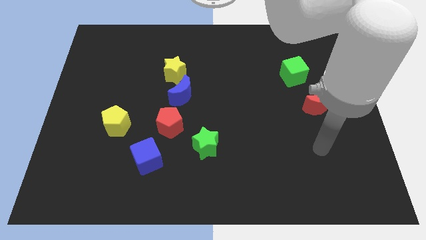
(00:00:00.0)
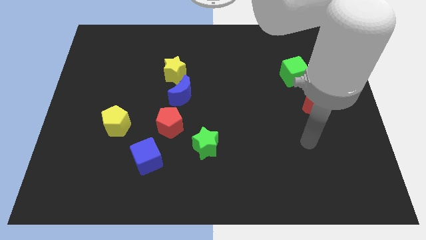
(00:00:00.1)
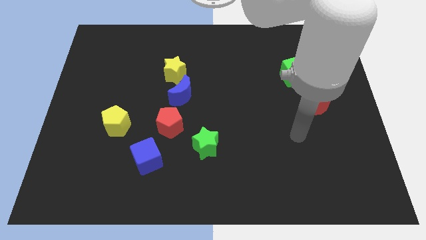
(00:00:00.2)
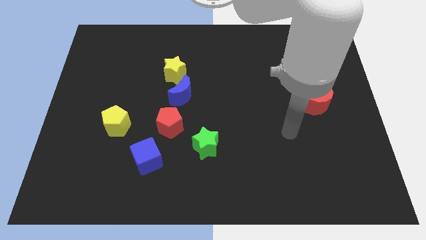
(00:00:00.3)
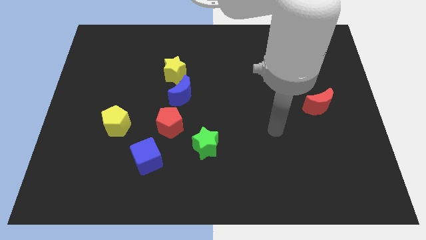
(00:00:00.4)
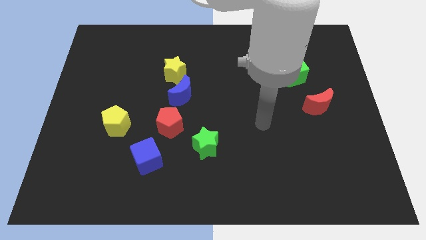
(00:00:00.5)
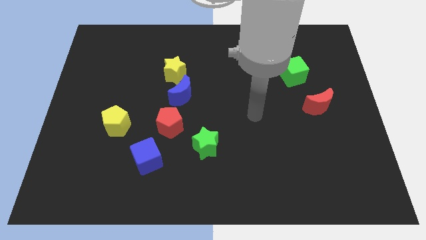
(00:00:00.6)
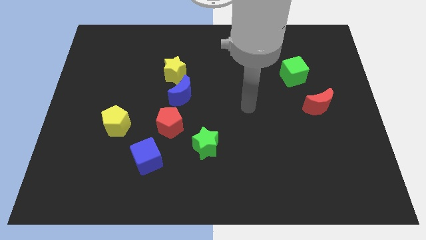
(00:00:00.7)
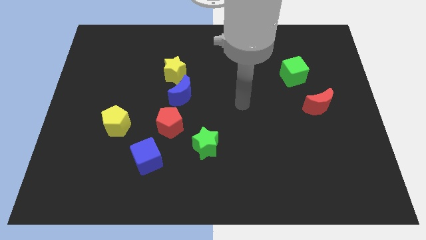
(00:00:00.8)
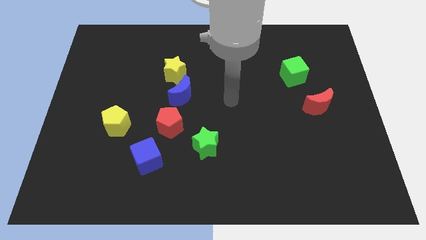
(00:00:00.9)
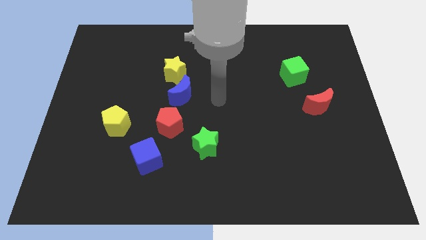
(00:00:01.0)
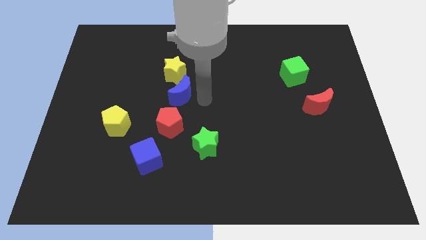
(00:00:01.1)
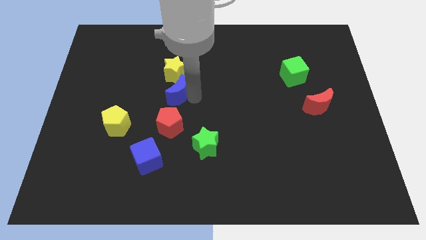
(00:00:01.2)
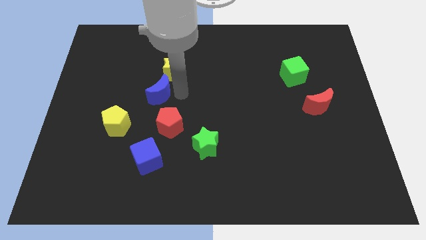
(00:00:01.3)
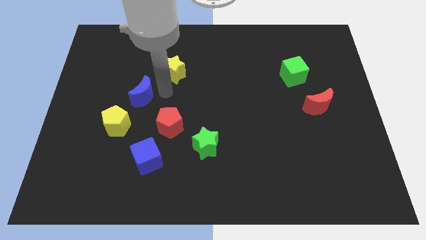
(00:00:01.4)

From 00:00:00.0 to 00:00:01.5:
separate the yellow star from the blue moon

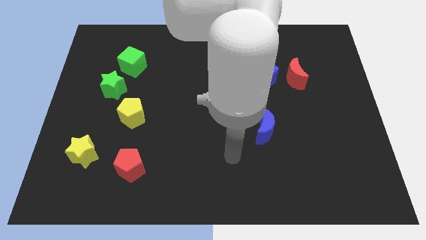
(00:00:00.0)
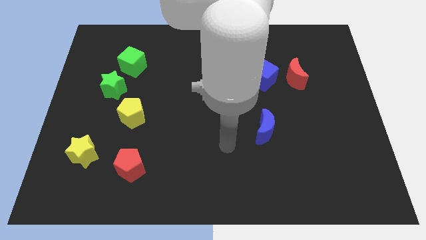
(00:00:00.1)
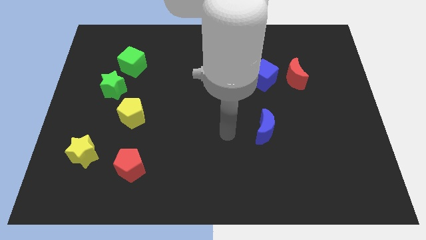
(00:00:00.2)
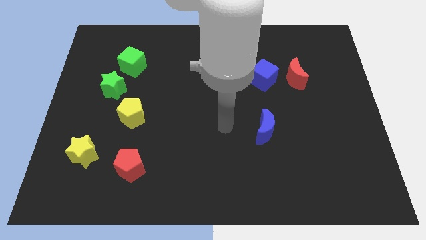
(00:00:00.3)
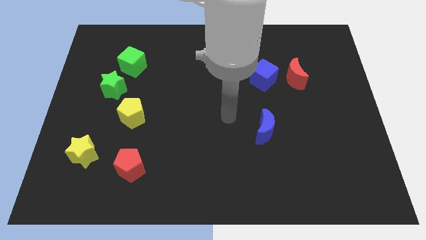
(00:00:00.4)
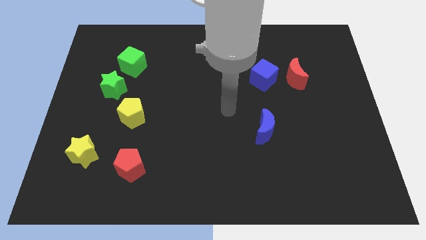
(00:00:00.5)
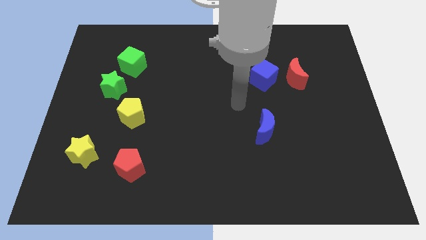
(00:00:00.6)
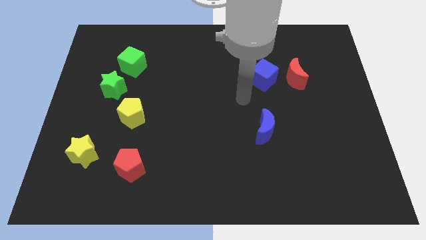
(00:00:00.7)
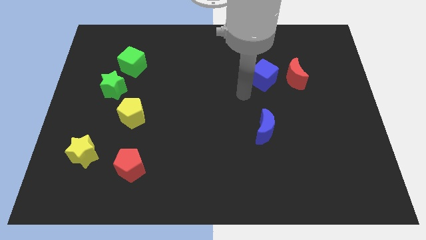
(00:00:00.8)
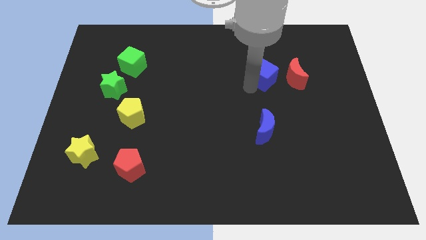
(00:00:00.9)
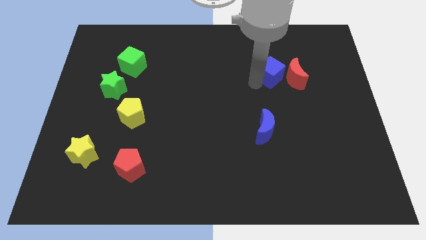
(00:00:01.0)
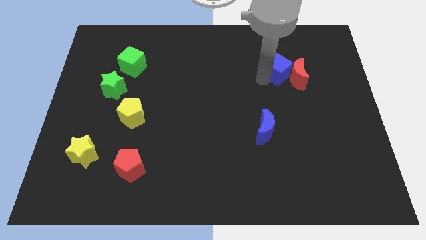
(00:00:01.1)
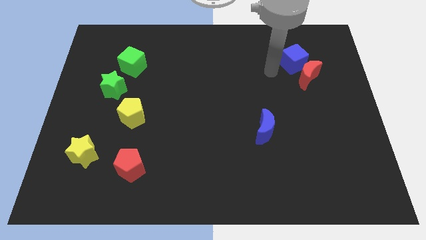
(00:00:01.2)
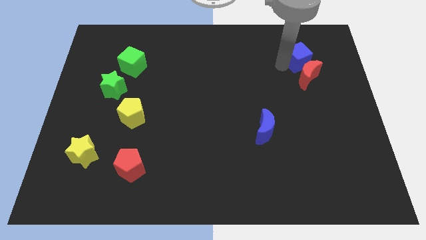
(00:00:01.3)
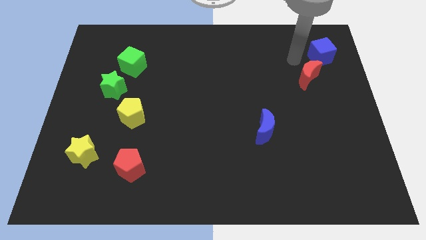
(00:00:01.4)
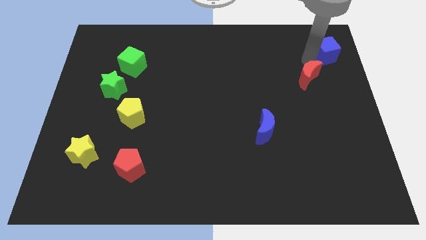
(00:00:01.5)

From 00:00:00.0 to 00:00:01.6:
separate the red moon from the blue cube

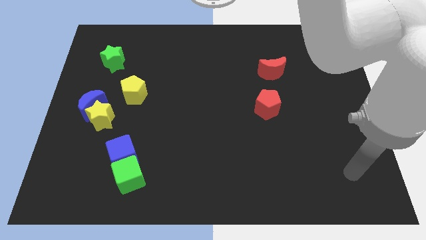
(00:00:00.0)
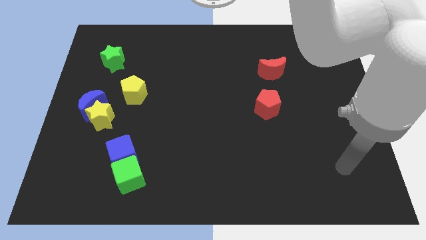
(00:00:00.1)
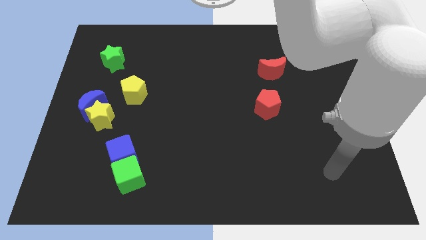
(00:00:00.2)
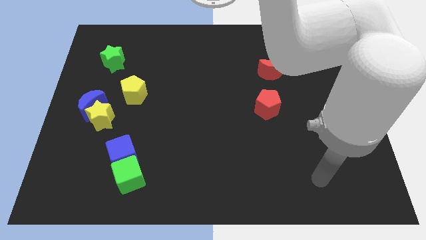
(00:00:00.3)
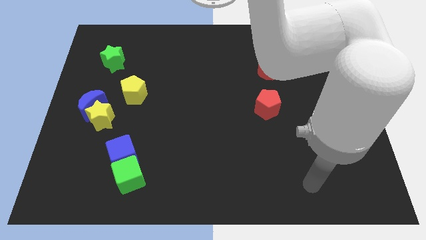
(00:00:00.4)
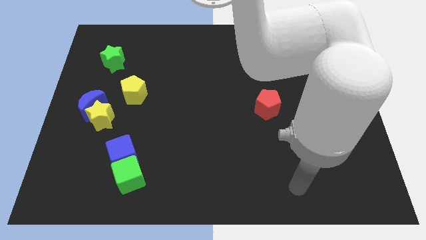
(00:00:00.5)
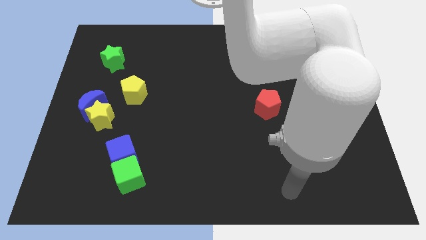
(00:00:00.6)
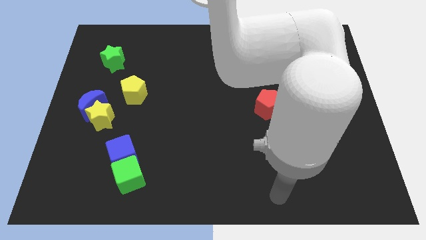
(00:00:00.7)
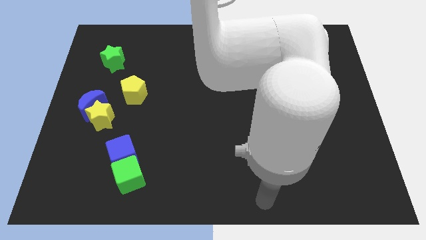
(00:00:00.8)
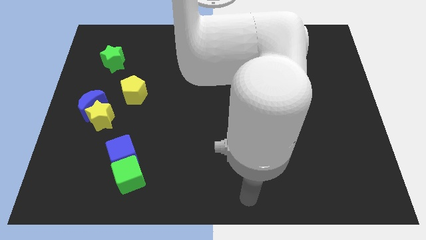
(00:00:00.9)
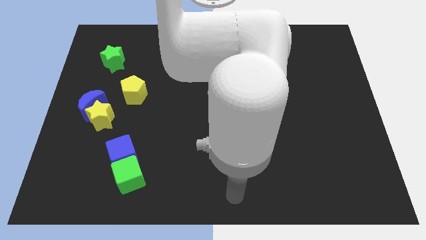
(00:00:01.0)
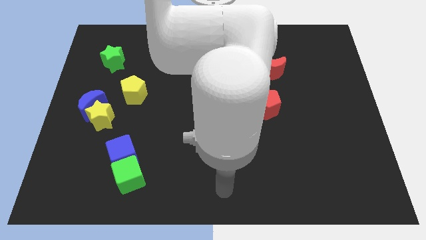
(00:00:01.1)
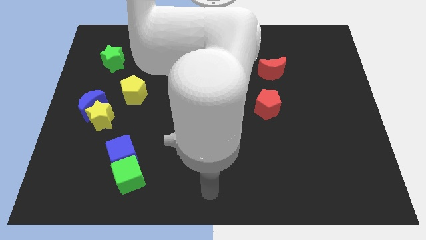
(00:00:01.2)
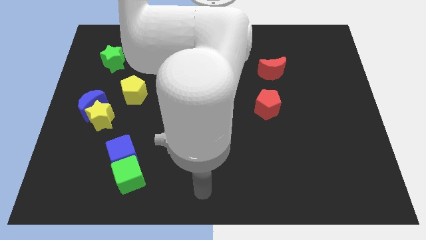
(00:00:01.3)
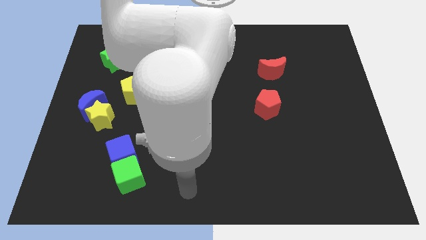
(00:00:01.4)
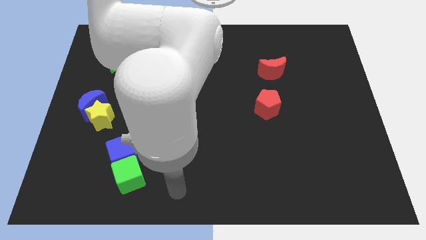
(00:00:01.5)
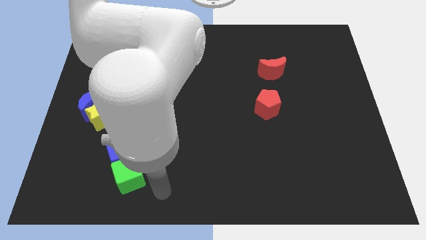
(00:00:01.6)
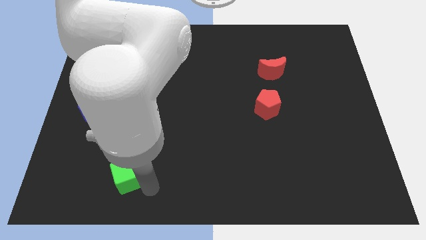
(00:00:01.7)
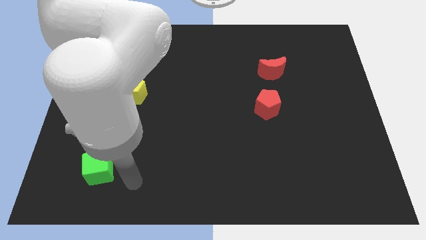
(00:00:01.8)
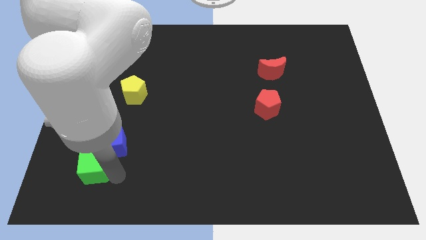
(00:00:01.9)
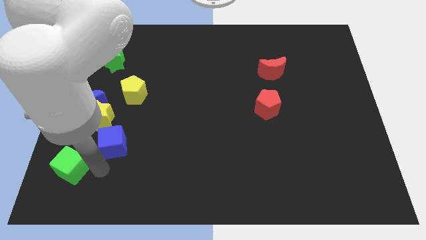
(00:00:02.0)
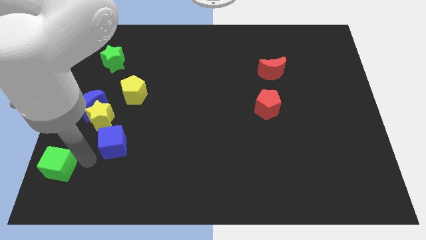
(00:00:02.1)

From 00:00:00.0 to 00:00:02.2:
move the blue cube away from the green cube

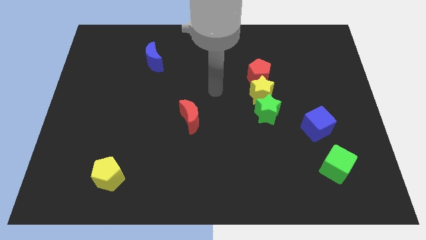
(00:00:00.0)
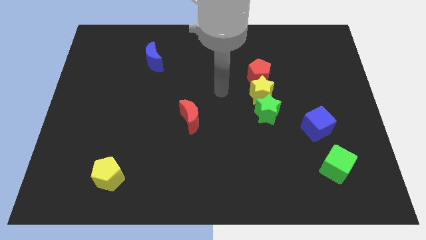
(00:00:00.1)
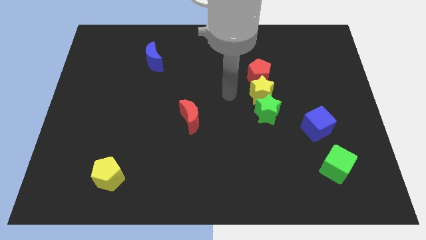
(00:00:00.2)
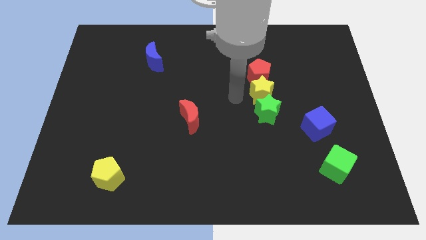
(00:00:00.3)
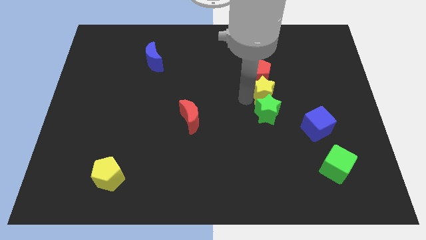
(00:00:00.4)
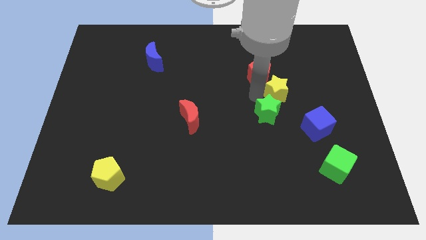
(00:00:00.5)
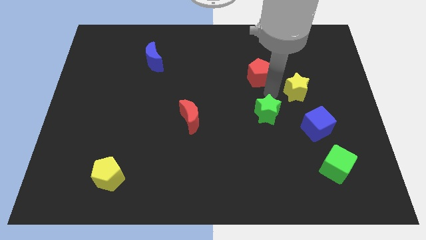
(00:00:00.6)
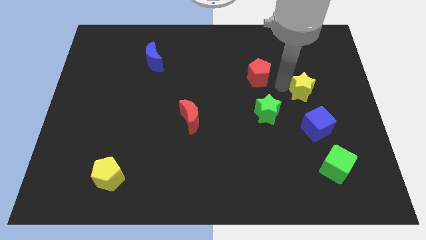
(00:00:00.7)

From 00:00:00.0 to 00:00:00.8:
separate the red pentagon from the yellow star

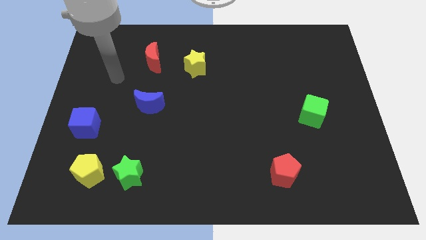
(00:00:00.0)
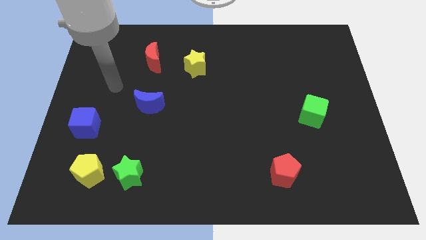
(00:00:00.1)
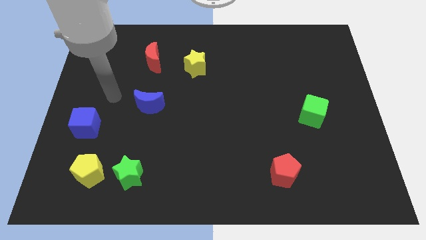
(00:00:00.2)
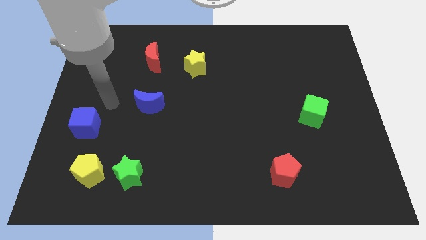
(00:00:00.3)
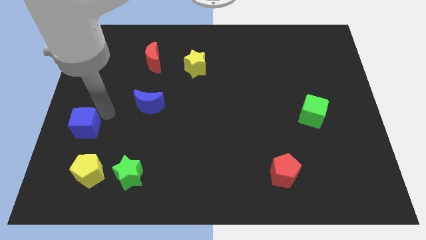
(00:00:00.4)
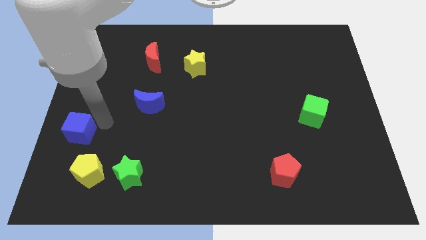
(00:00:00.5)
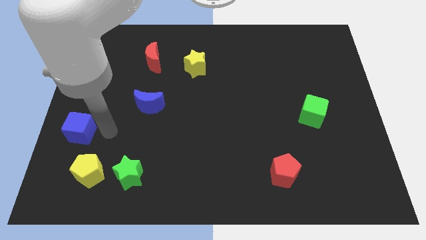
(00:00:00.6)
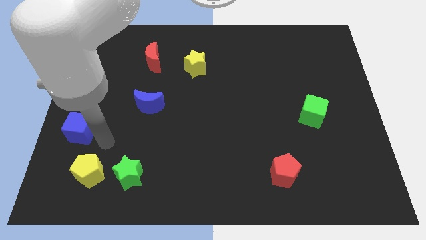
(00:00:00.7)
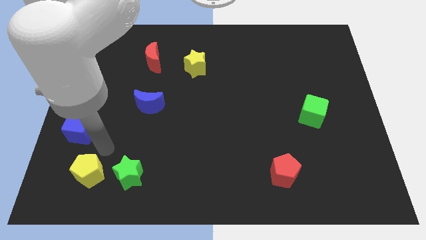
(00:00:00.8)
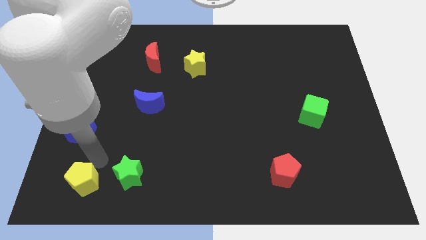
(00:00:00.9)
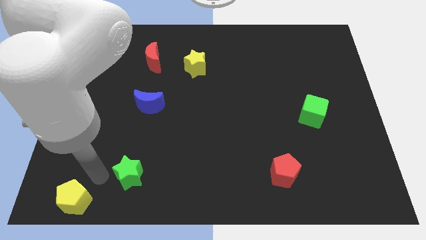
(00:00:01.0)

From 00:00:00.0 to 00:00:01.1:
separate the green star from the yellow pentagon

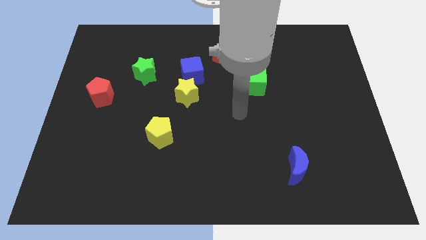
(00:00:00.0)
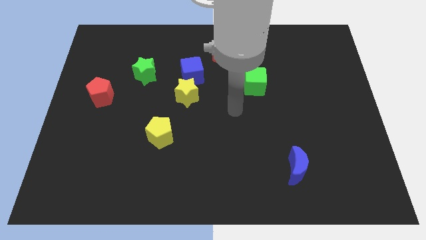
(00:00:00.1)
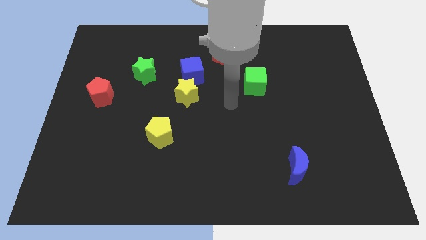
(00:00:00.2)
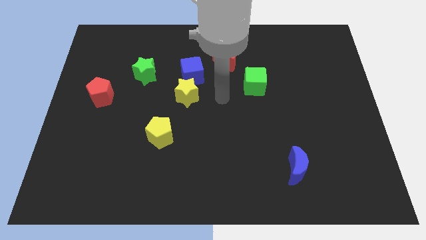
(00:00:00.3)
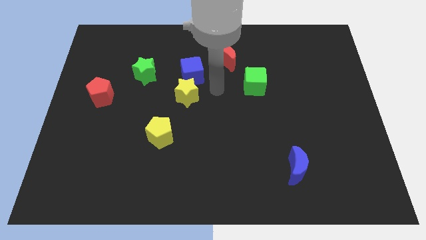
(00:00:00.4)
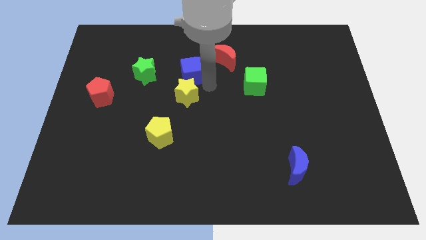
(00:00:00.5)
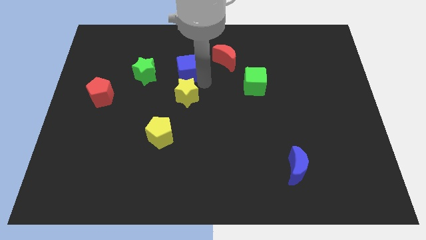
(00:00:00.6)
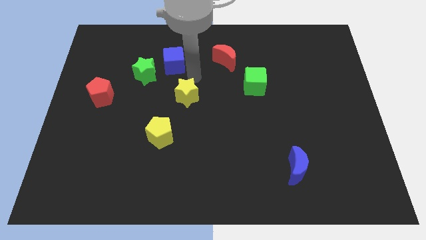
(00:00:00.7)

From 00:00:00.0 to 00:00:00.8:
pull the yellow star apart from the blue cube

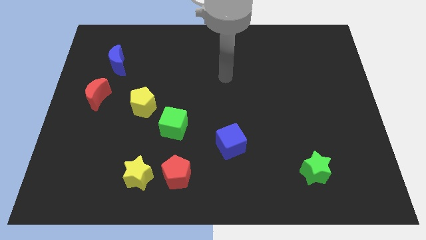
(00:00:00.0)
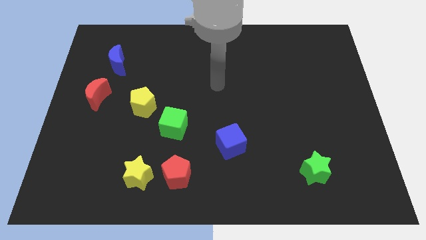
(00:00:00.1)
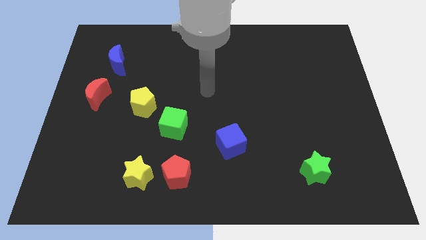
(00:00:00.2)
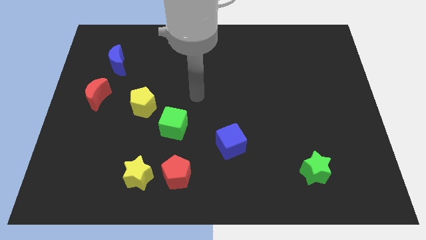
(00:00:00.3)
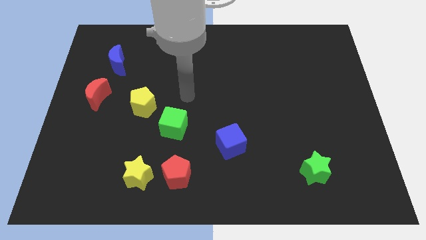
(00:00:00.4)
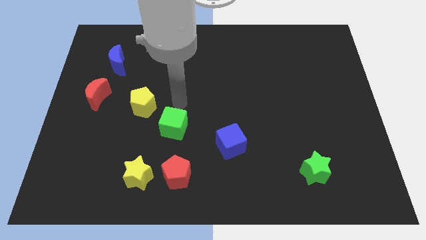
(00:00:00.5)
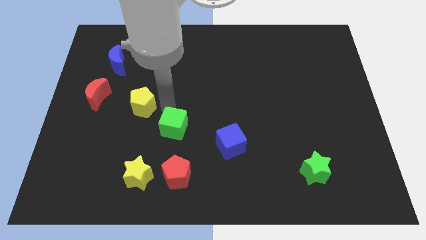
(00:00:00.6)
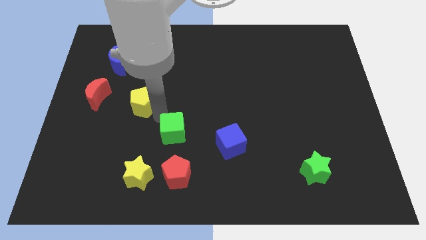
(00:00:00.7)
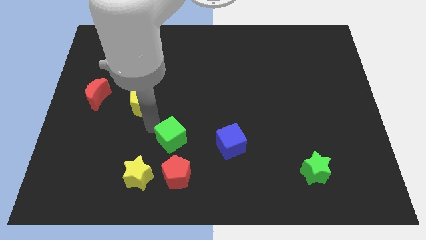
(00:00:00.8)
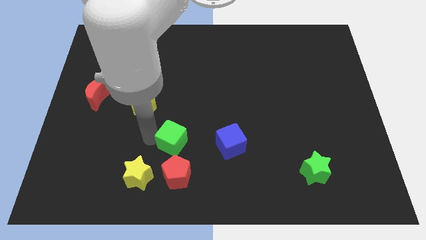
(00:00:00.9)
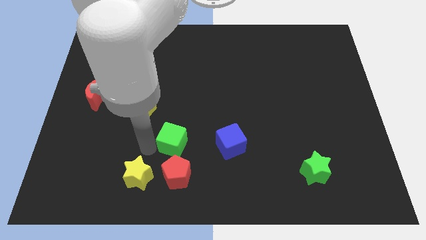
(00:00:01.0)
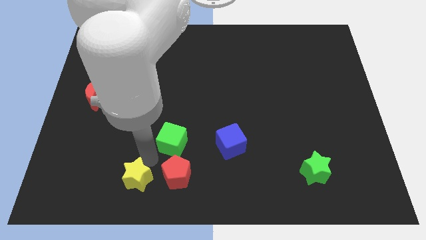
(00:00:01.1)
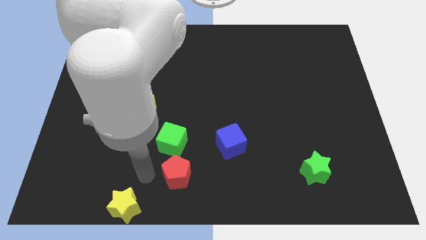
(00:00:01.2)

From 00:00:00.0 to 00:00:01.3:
pull the red pentagon apart from the yellow star
